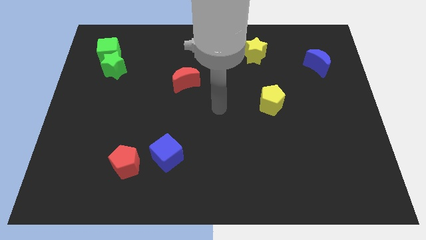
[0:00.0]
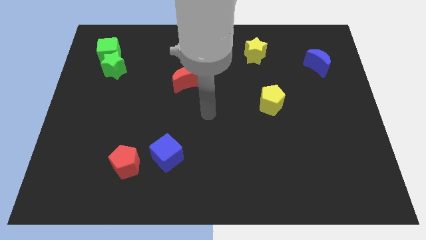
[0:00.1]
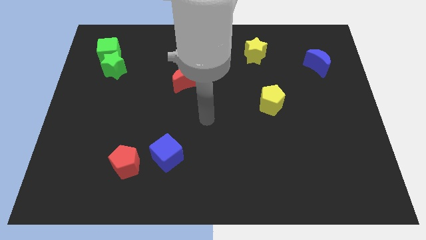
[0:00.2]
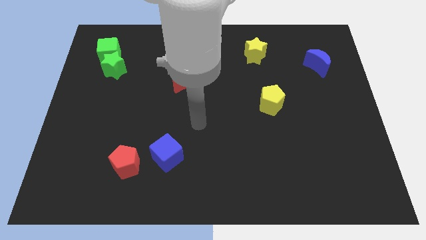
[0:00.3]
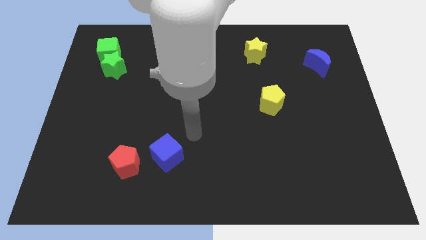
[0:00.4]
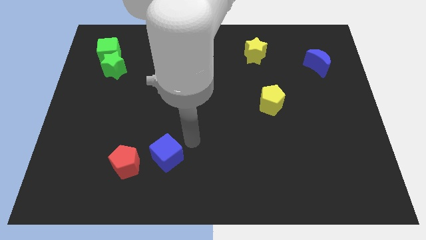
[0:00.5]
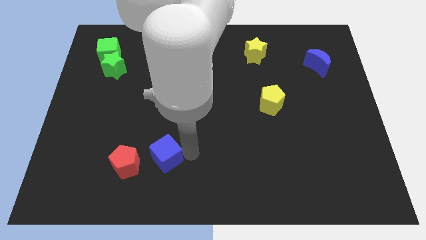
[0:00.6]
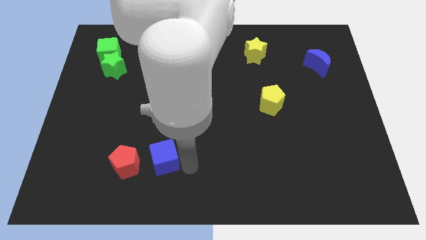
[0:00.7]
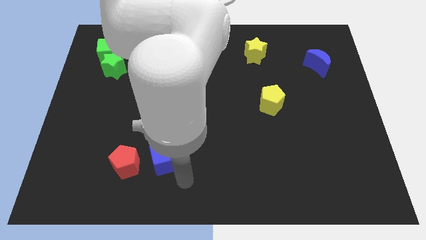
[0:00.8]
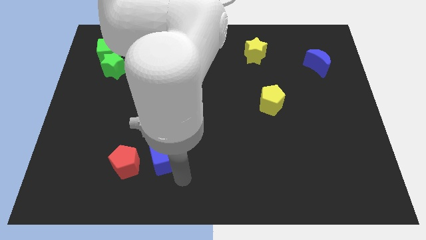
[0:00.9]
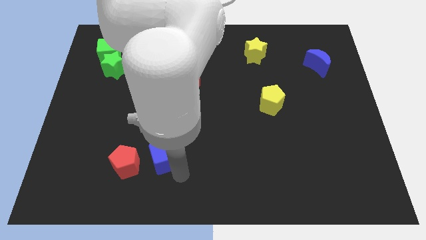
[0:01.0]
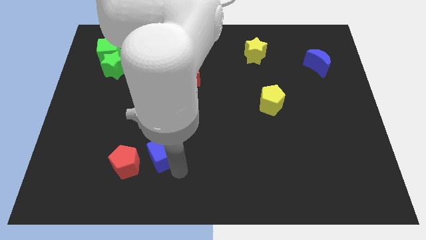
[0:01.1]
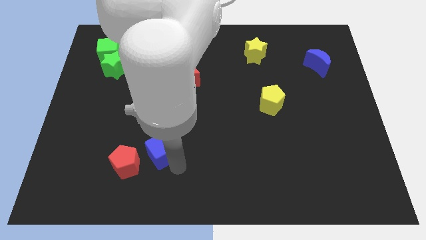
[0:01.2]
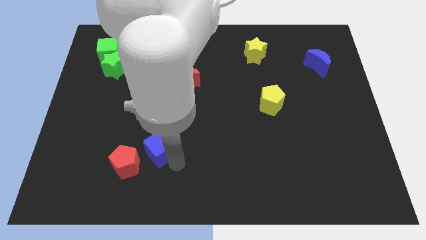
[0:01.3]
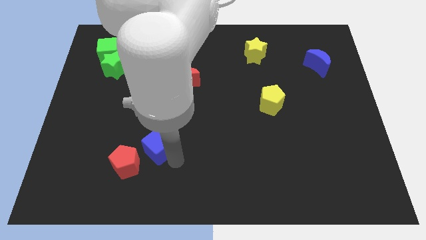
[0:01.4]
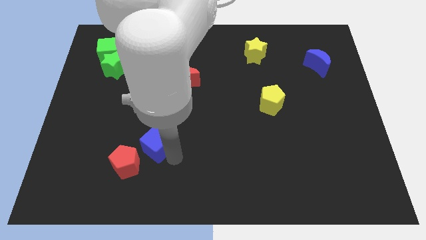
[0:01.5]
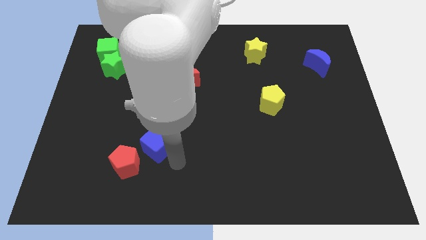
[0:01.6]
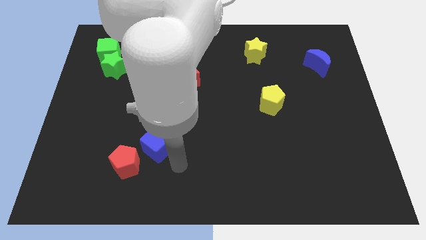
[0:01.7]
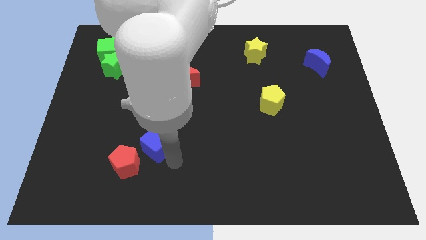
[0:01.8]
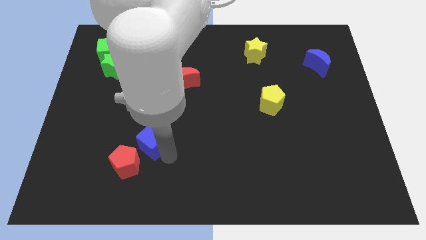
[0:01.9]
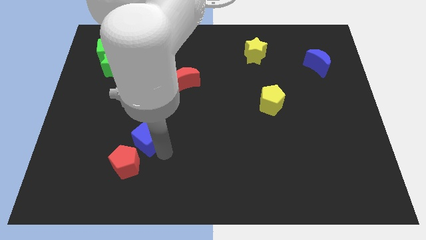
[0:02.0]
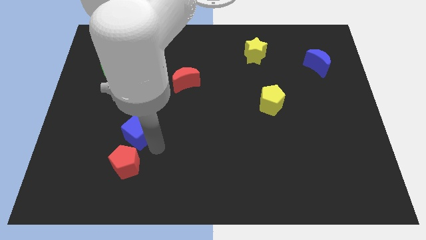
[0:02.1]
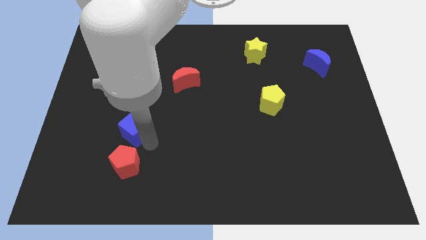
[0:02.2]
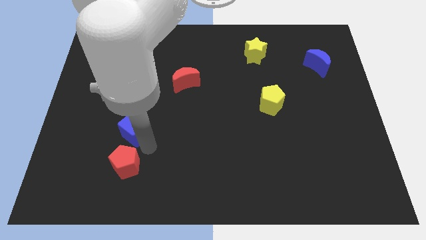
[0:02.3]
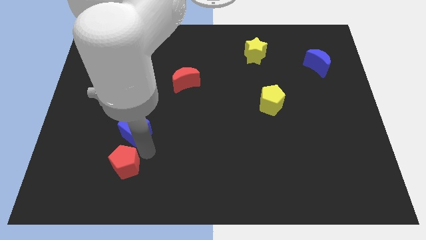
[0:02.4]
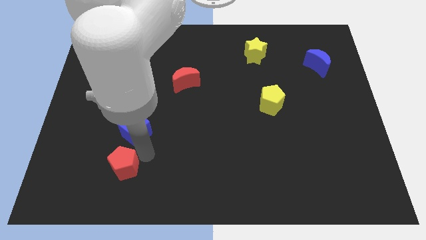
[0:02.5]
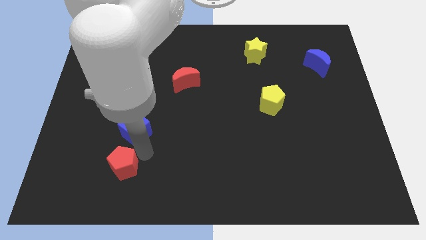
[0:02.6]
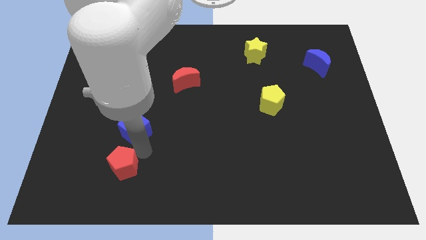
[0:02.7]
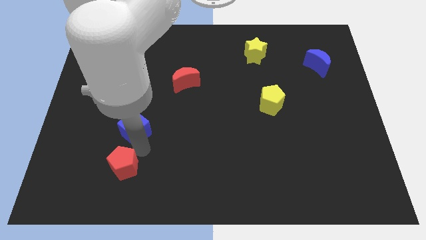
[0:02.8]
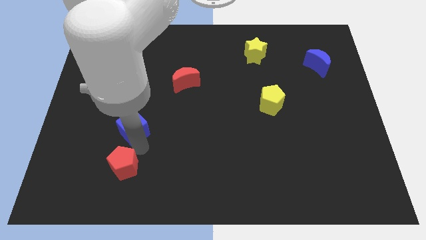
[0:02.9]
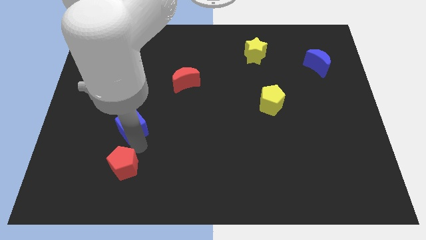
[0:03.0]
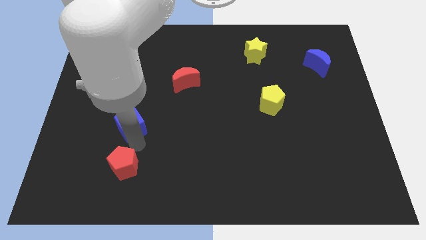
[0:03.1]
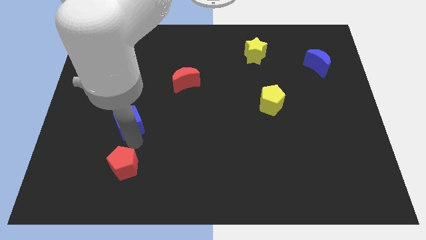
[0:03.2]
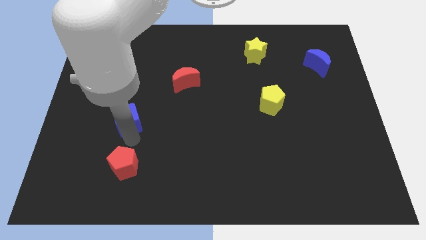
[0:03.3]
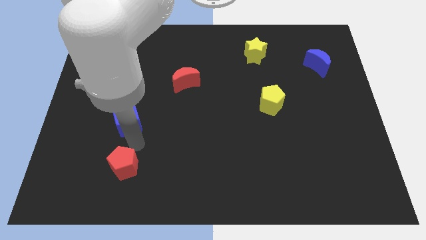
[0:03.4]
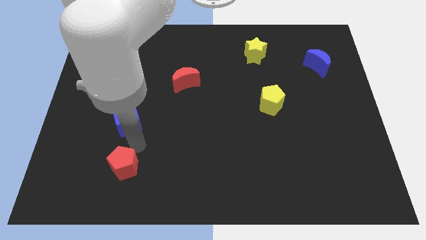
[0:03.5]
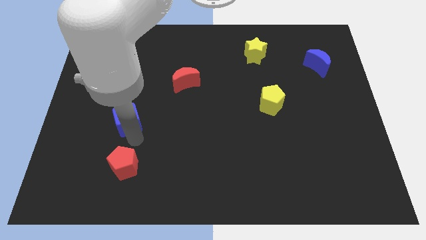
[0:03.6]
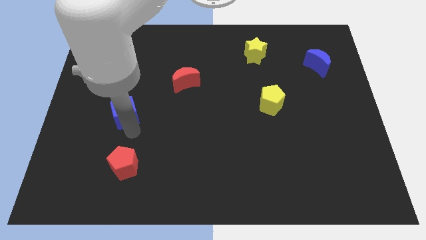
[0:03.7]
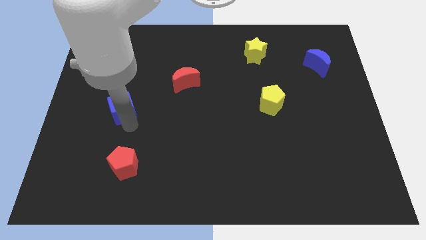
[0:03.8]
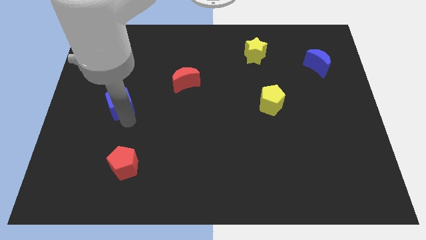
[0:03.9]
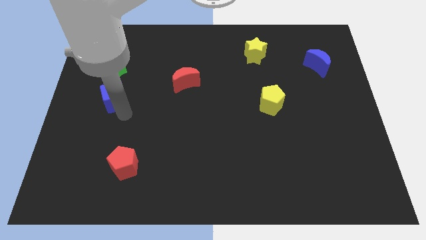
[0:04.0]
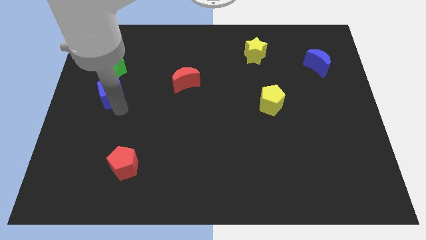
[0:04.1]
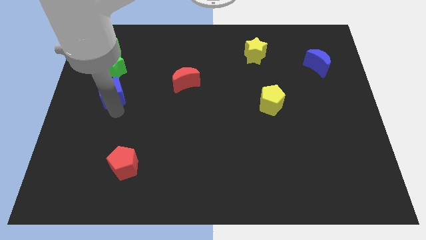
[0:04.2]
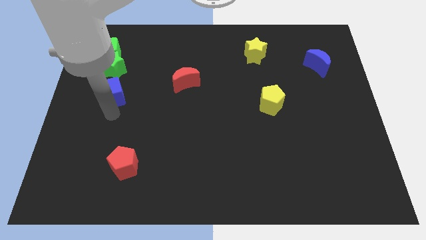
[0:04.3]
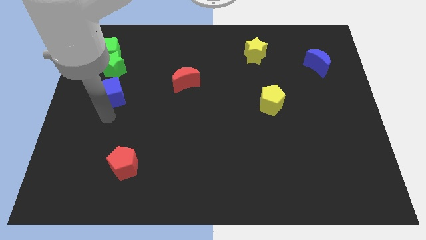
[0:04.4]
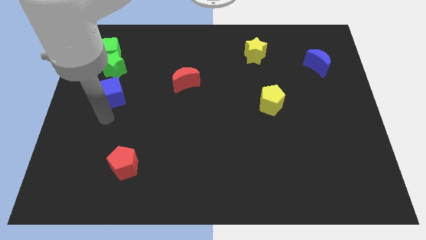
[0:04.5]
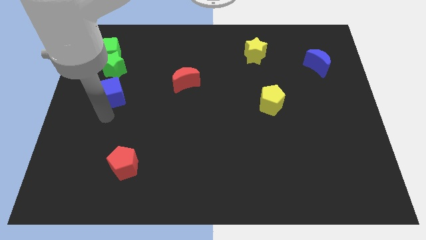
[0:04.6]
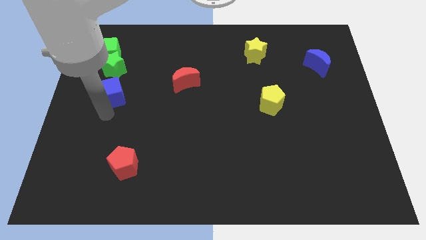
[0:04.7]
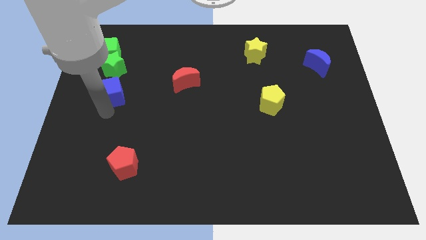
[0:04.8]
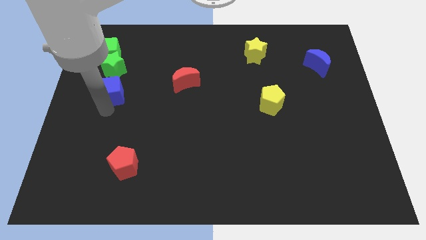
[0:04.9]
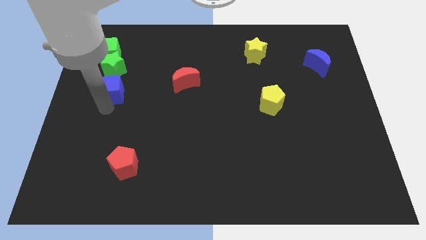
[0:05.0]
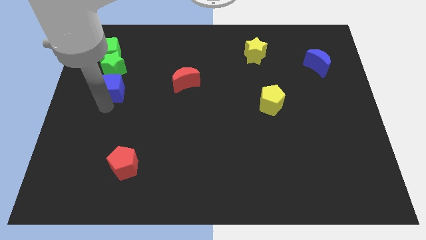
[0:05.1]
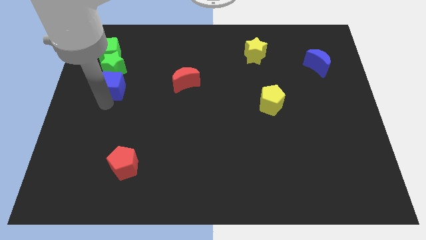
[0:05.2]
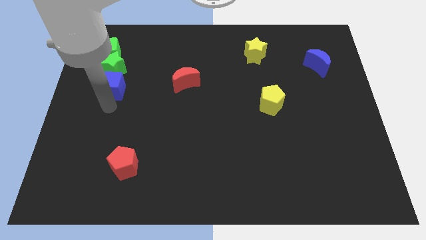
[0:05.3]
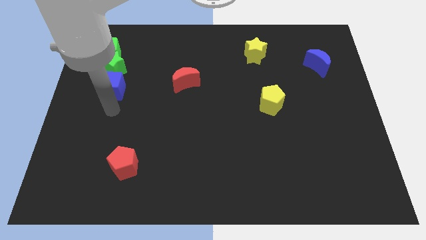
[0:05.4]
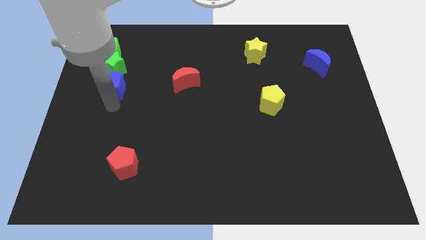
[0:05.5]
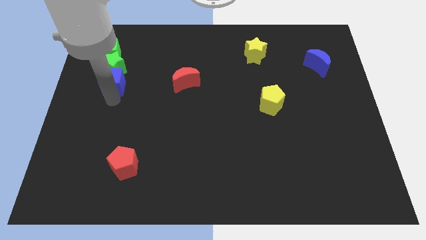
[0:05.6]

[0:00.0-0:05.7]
slide the blue cube towards the green star

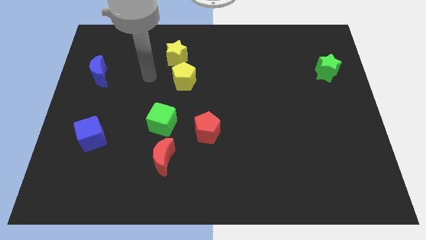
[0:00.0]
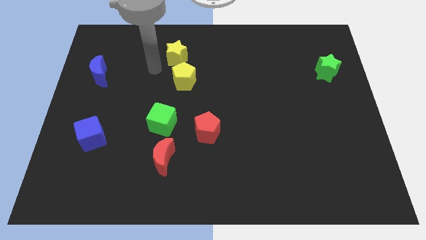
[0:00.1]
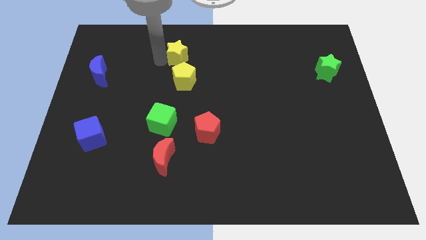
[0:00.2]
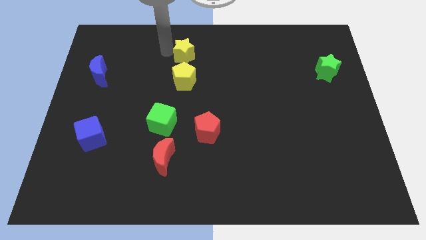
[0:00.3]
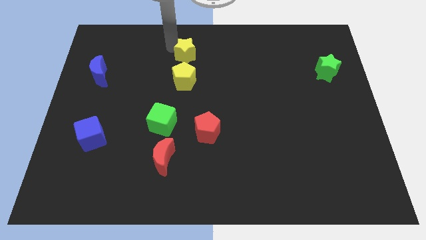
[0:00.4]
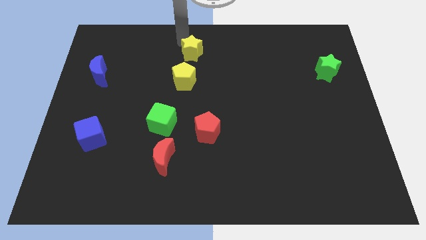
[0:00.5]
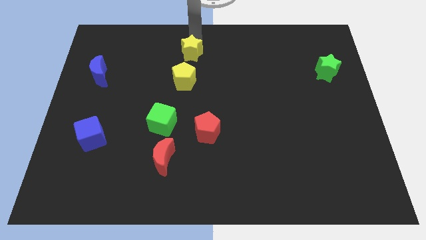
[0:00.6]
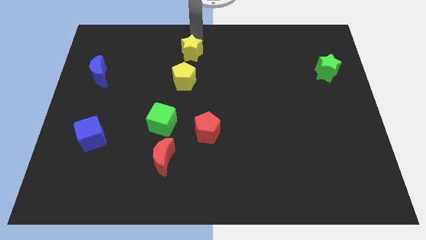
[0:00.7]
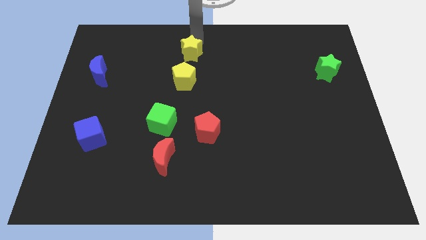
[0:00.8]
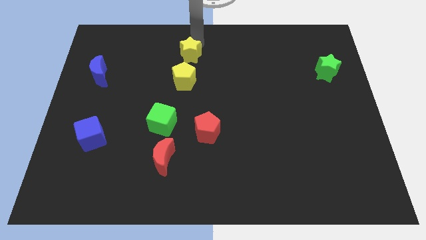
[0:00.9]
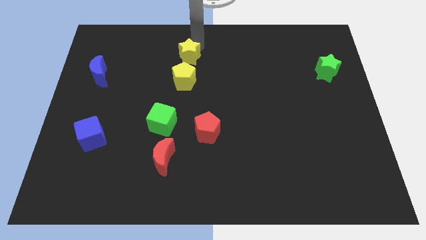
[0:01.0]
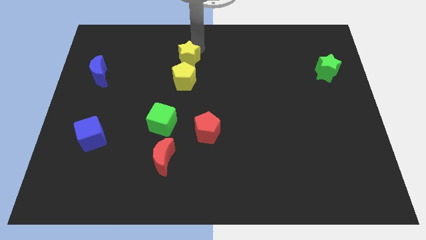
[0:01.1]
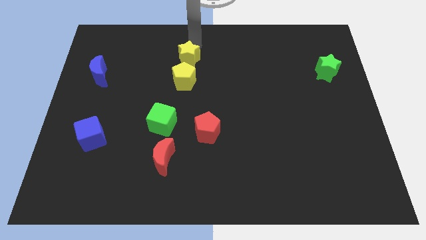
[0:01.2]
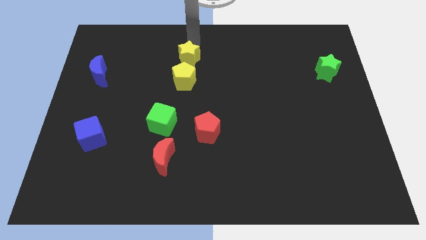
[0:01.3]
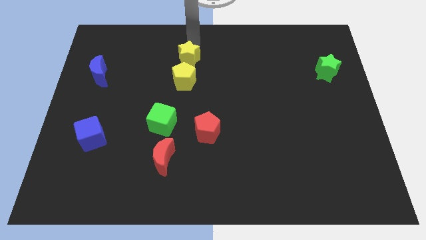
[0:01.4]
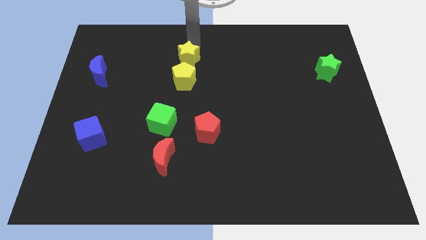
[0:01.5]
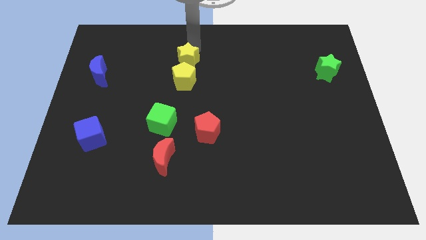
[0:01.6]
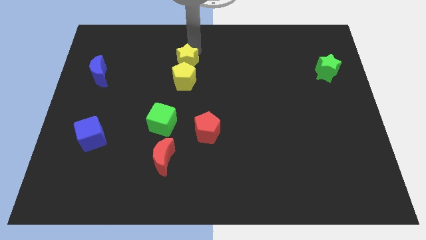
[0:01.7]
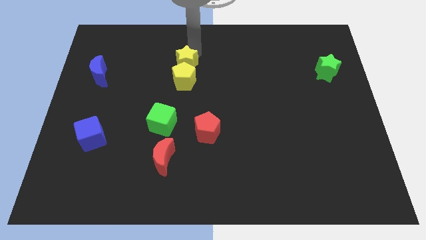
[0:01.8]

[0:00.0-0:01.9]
put the yellow star to the yellow pentagon
